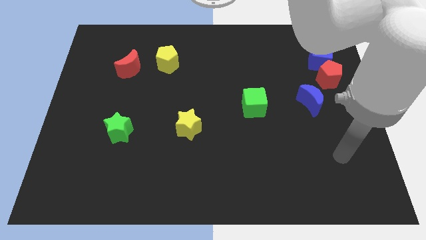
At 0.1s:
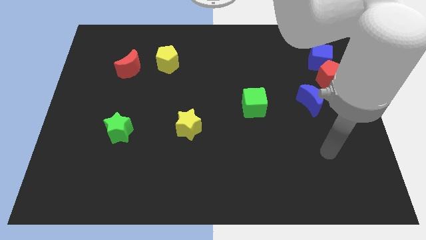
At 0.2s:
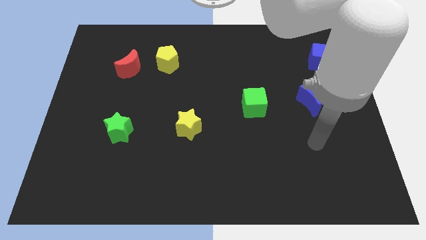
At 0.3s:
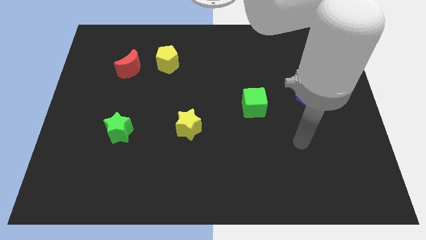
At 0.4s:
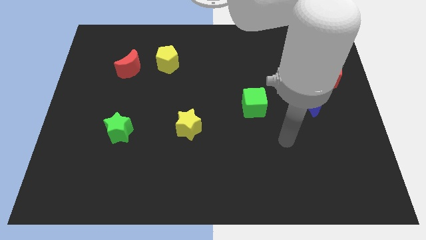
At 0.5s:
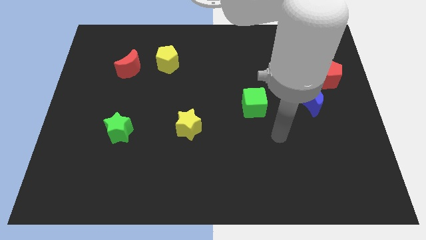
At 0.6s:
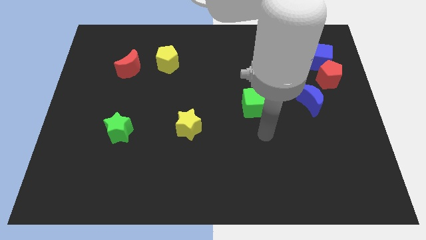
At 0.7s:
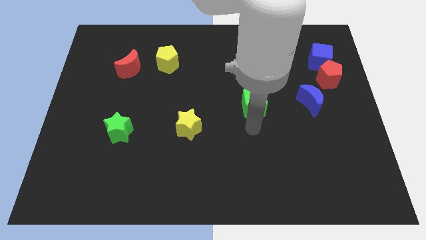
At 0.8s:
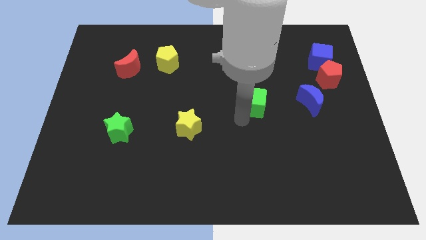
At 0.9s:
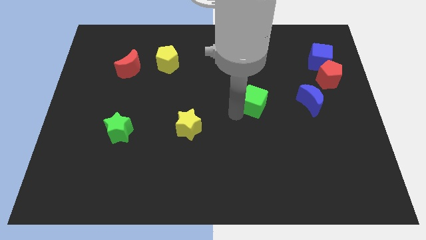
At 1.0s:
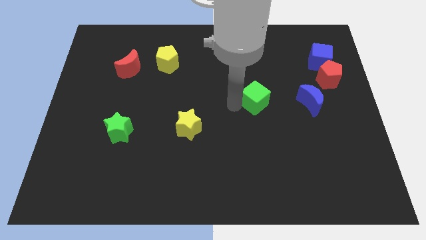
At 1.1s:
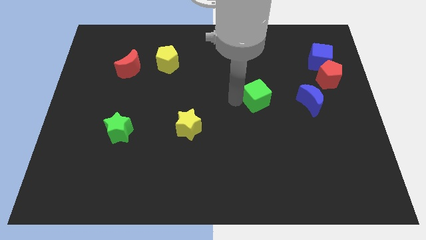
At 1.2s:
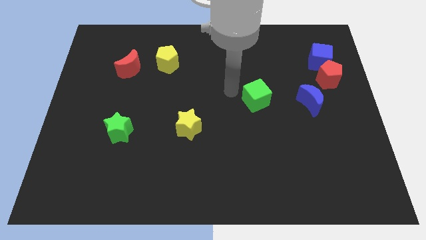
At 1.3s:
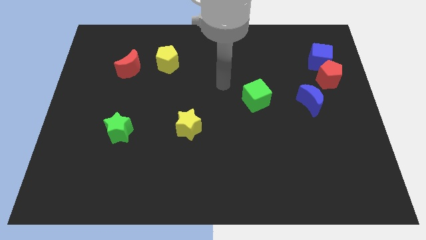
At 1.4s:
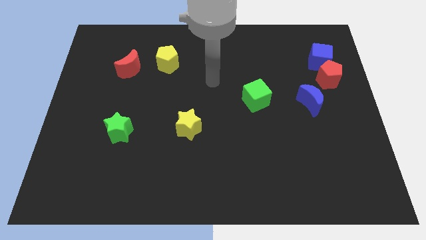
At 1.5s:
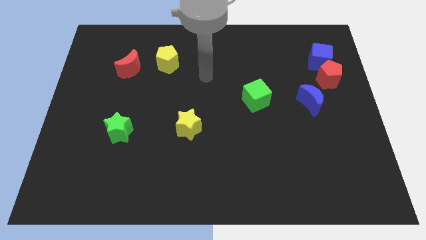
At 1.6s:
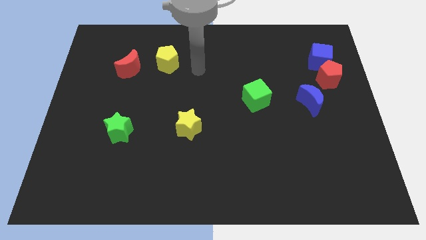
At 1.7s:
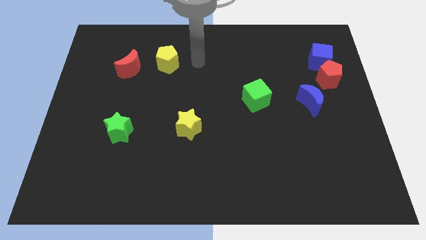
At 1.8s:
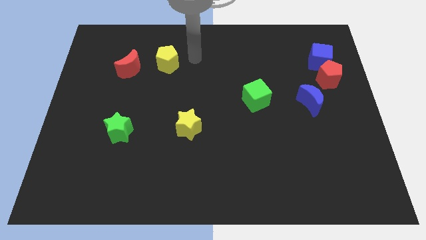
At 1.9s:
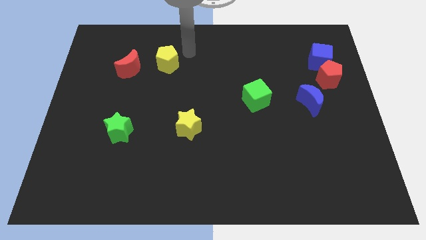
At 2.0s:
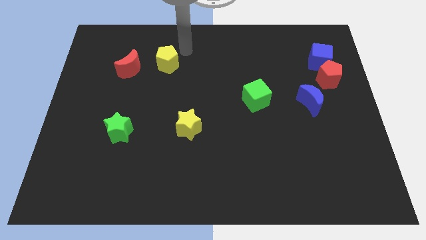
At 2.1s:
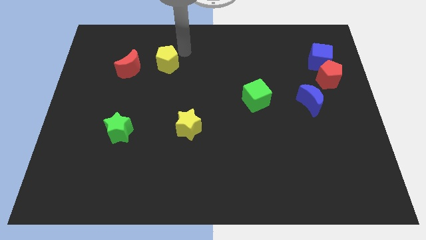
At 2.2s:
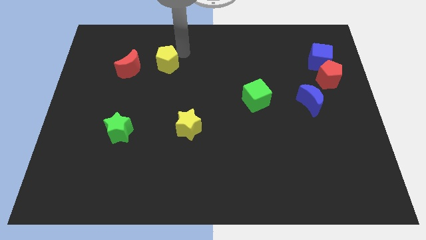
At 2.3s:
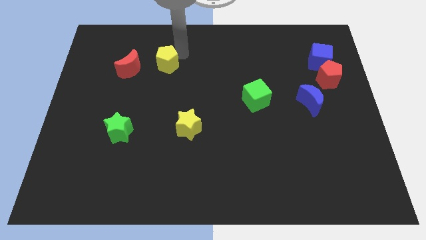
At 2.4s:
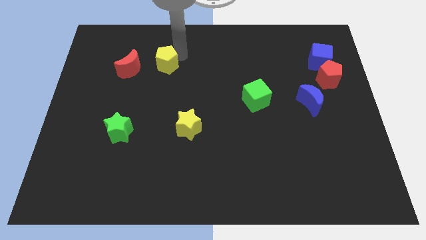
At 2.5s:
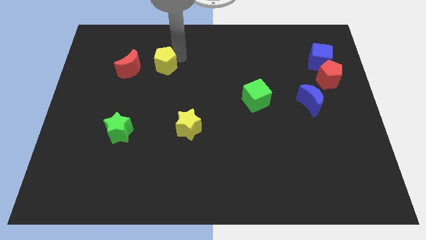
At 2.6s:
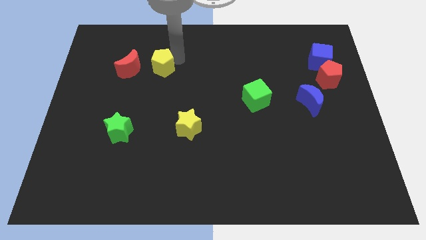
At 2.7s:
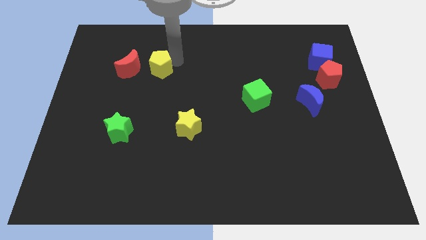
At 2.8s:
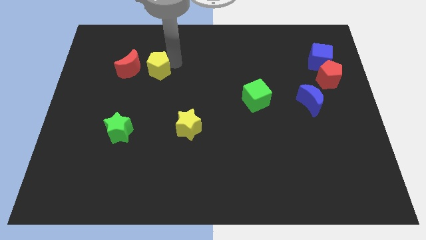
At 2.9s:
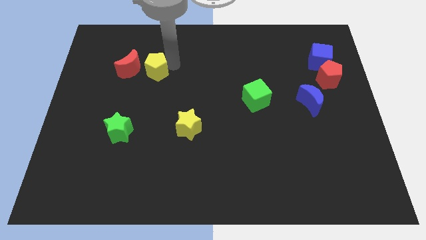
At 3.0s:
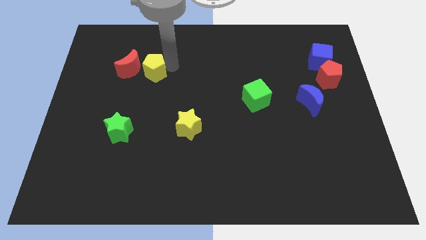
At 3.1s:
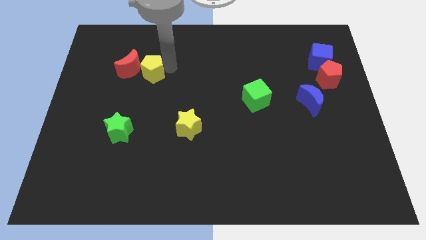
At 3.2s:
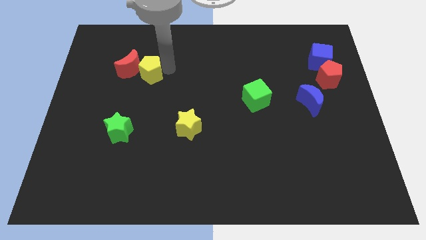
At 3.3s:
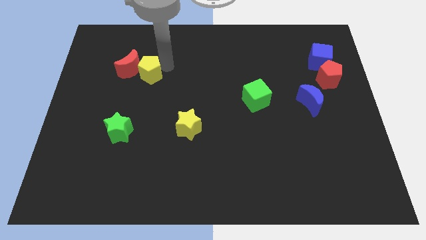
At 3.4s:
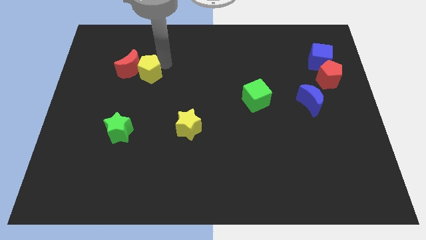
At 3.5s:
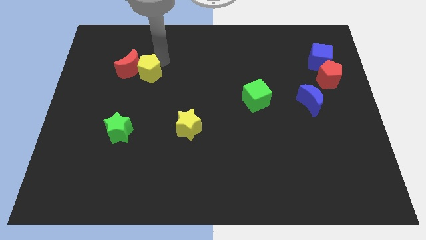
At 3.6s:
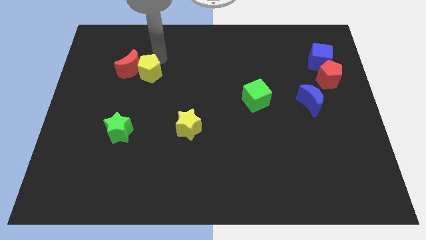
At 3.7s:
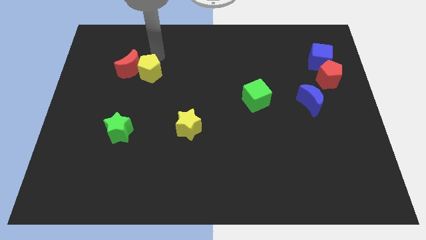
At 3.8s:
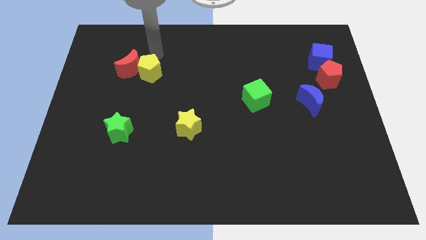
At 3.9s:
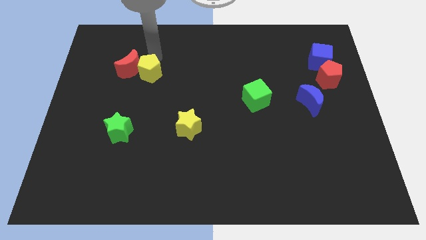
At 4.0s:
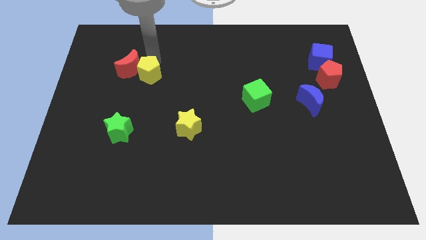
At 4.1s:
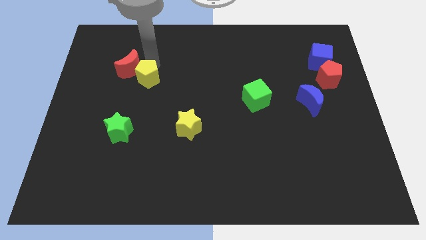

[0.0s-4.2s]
slide the yellow pentagon slightly down and left diagonally

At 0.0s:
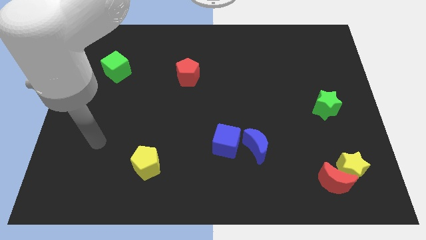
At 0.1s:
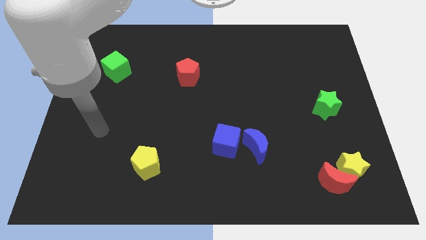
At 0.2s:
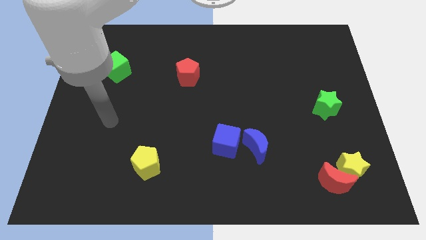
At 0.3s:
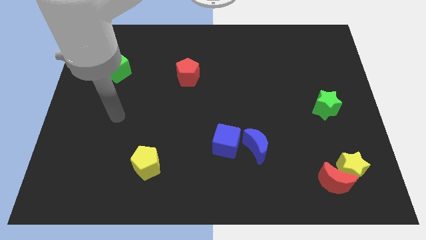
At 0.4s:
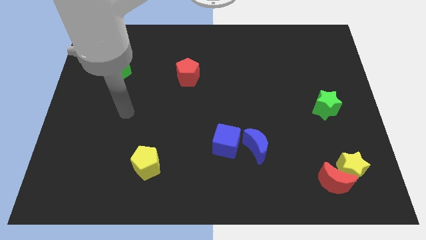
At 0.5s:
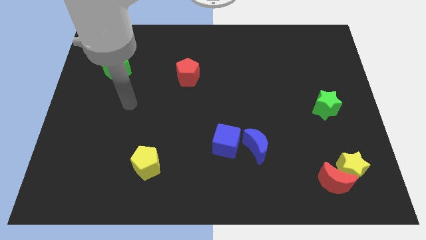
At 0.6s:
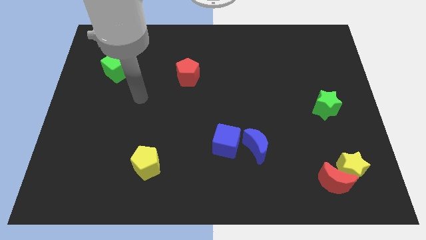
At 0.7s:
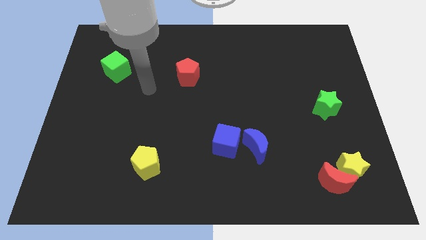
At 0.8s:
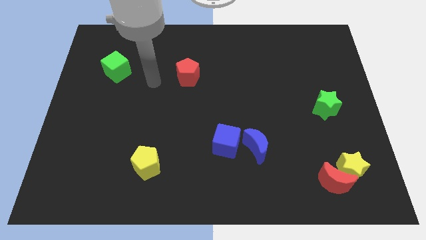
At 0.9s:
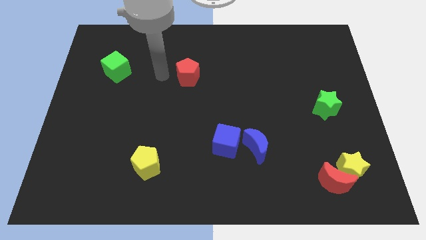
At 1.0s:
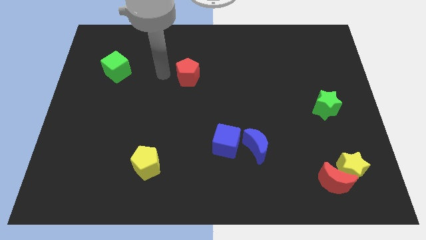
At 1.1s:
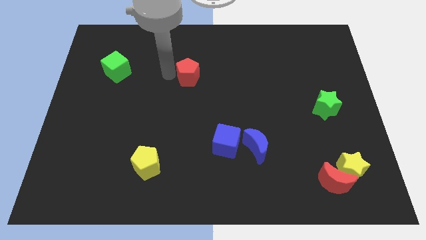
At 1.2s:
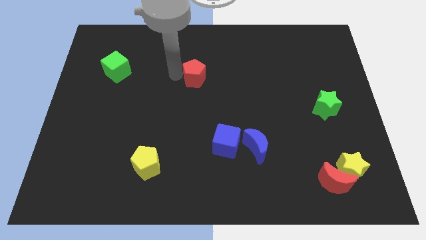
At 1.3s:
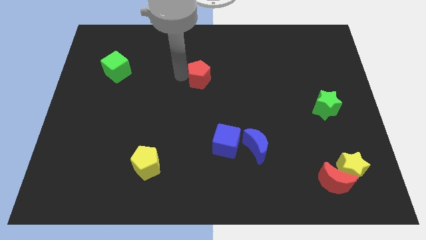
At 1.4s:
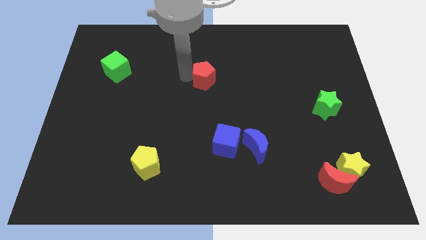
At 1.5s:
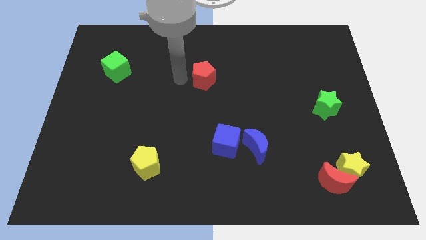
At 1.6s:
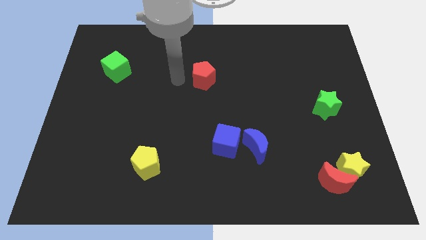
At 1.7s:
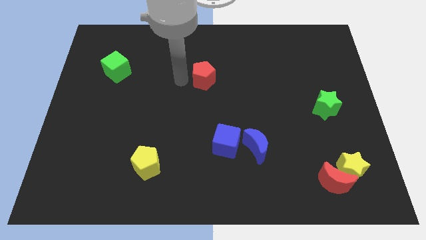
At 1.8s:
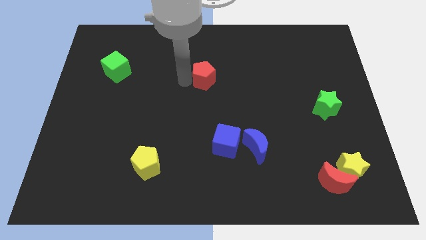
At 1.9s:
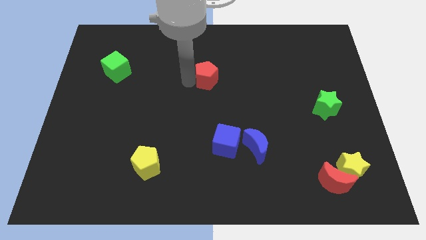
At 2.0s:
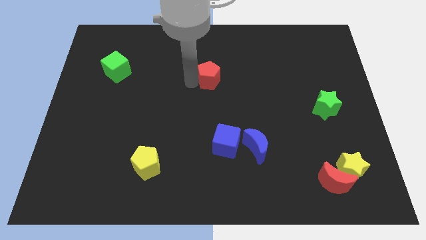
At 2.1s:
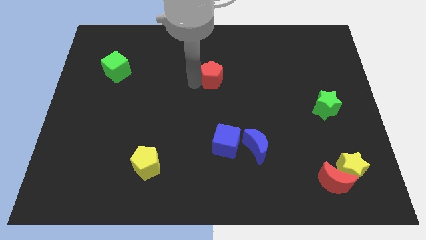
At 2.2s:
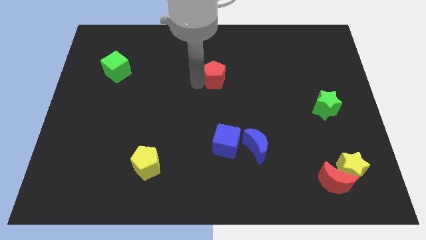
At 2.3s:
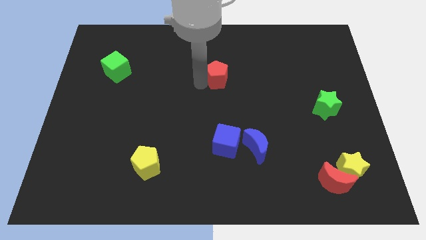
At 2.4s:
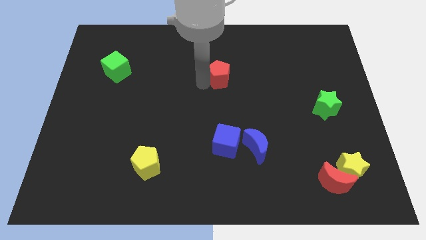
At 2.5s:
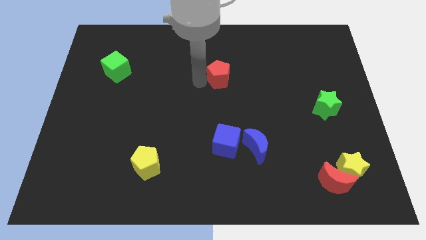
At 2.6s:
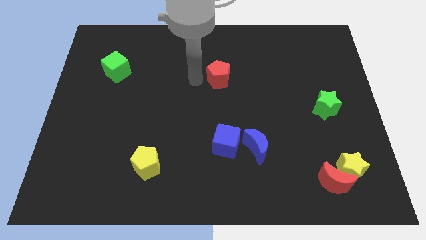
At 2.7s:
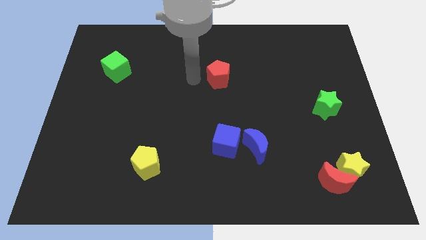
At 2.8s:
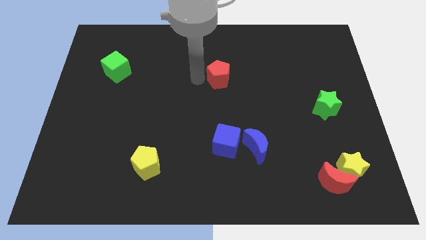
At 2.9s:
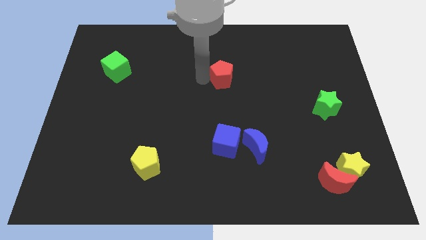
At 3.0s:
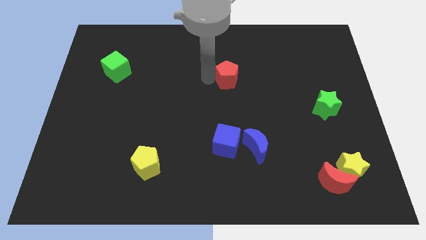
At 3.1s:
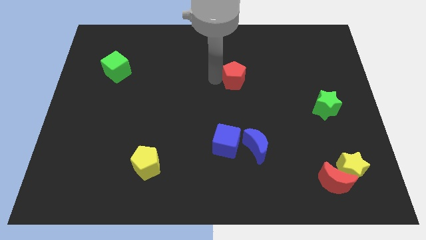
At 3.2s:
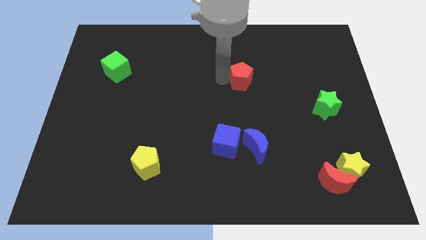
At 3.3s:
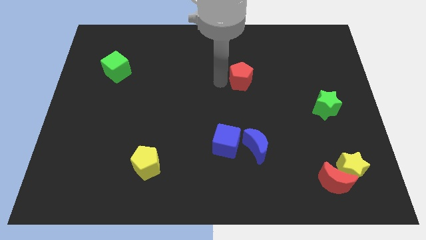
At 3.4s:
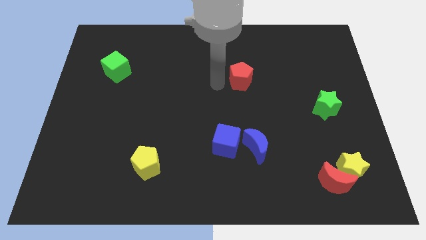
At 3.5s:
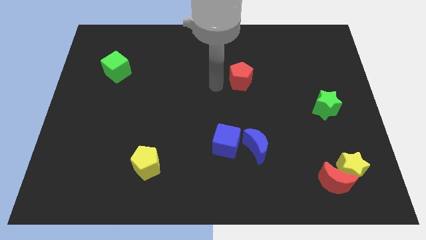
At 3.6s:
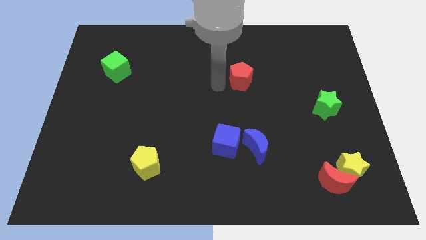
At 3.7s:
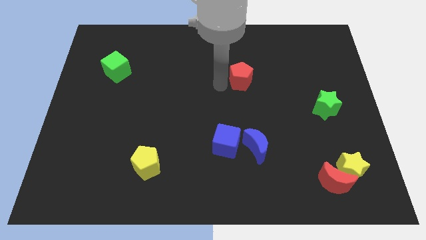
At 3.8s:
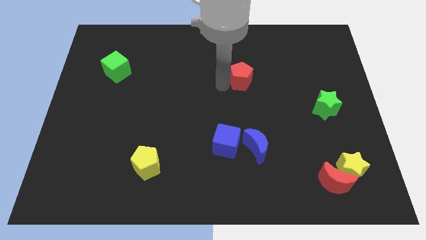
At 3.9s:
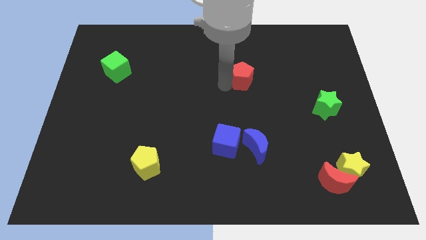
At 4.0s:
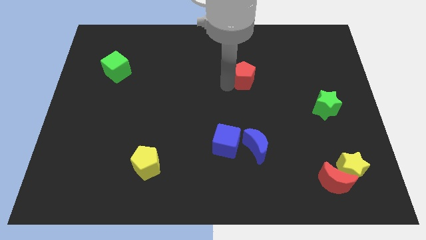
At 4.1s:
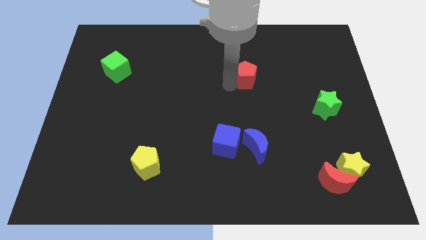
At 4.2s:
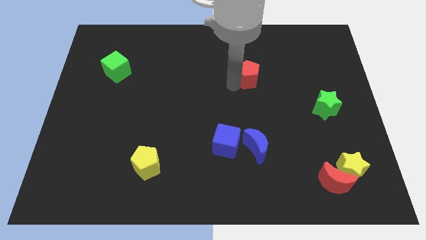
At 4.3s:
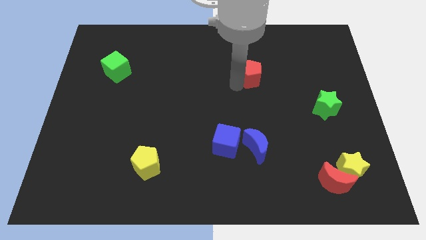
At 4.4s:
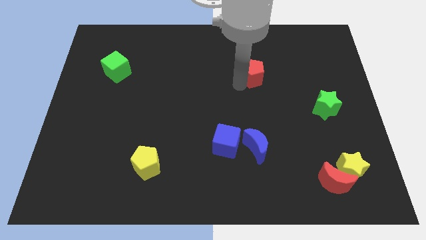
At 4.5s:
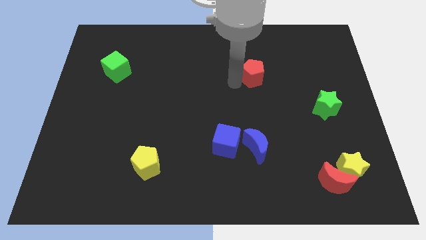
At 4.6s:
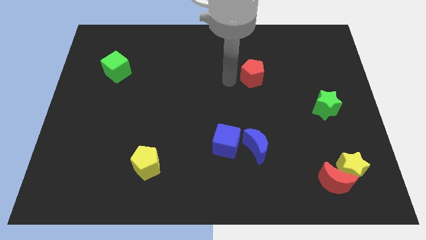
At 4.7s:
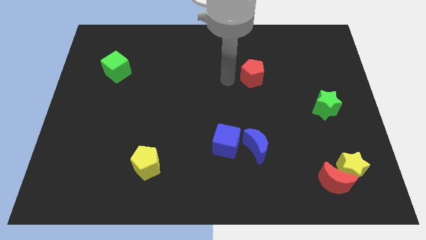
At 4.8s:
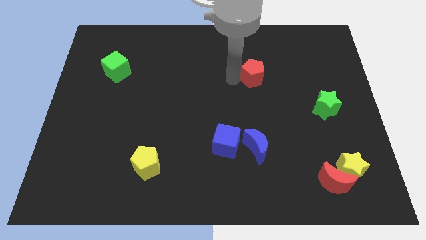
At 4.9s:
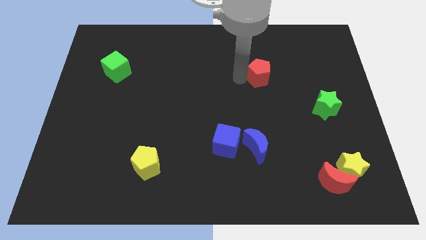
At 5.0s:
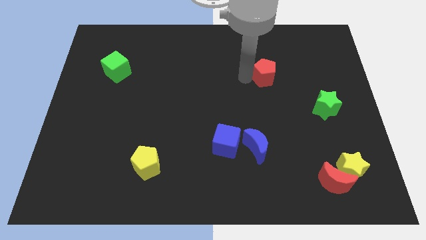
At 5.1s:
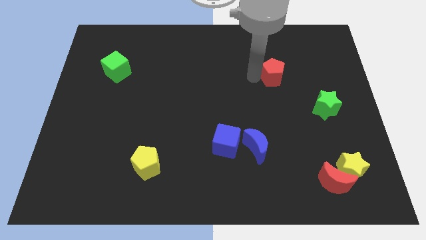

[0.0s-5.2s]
slide the red pentagon to the right
